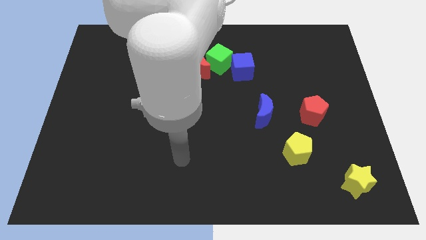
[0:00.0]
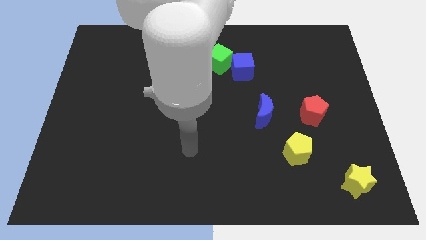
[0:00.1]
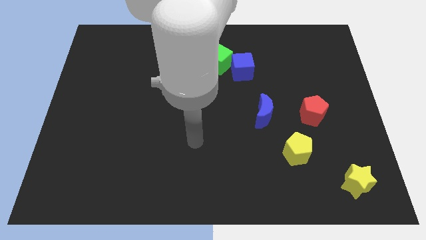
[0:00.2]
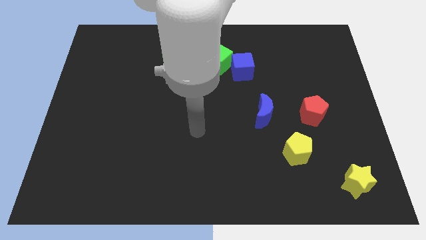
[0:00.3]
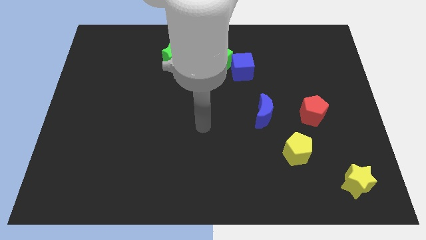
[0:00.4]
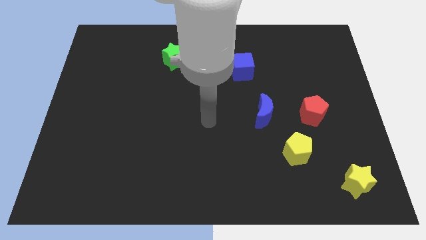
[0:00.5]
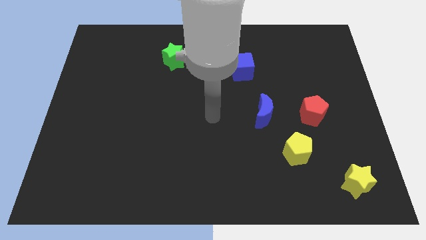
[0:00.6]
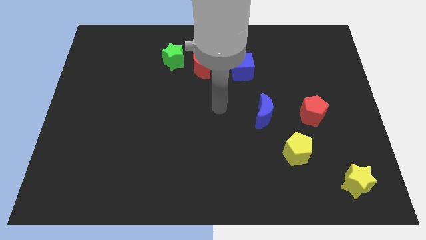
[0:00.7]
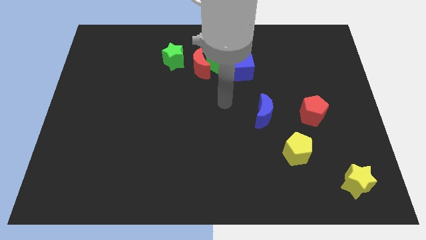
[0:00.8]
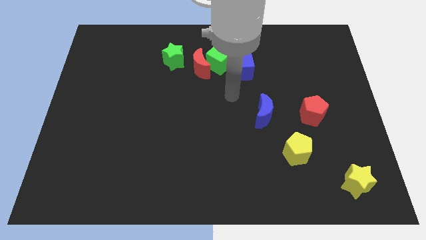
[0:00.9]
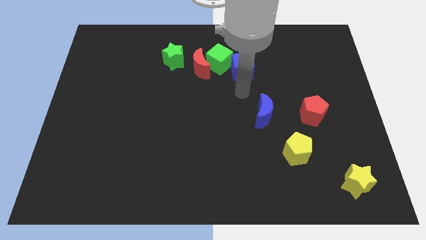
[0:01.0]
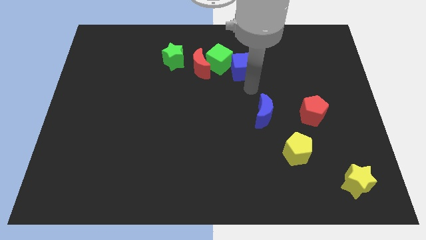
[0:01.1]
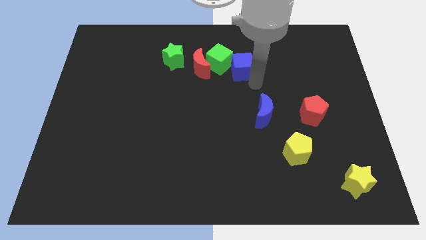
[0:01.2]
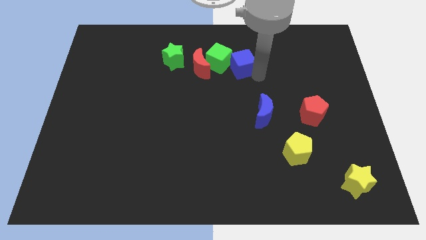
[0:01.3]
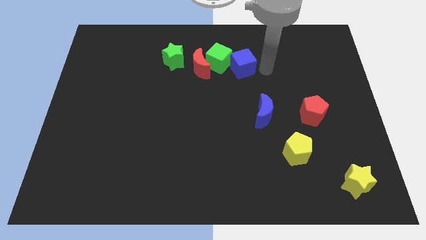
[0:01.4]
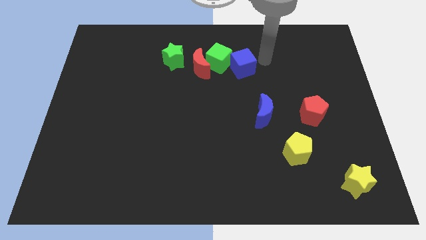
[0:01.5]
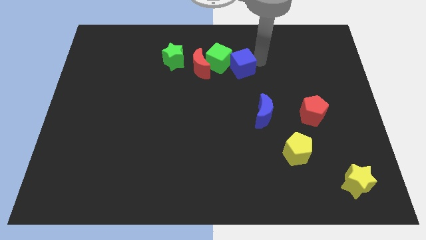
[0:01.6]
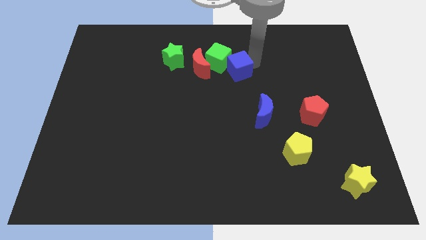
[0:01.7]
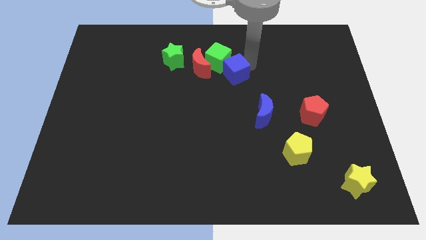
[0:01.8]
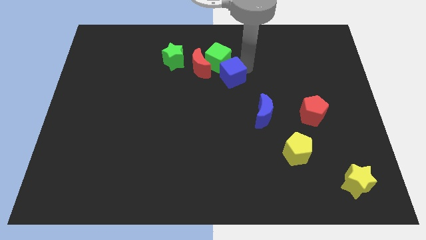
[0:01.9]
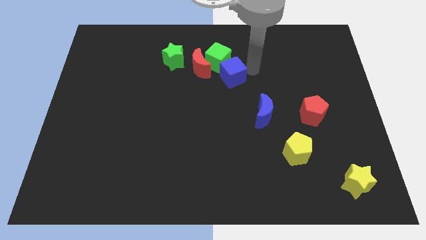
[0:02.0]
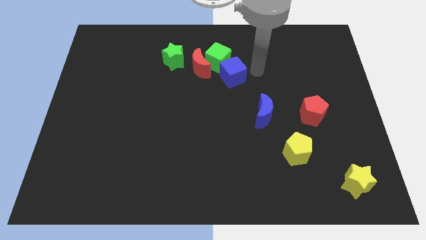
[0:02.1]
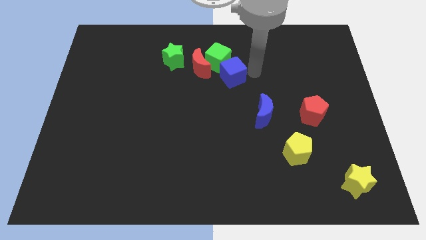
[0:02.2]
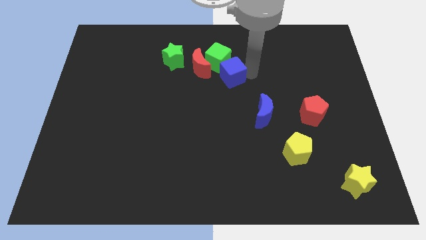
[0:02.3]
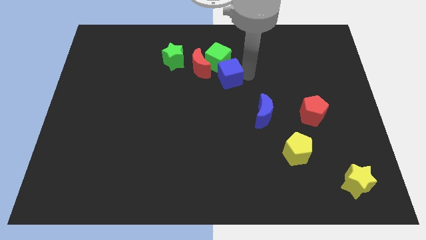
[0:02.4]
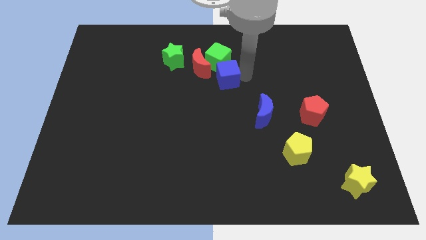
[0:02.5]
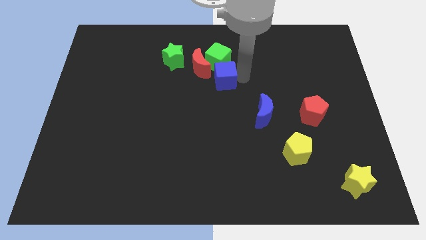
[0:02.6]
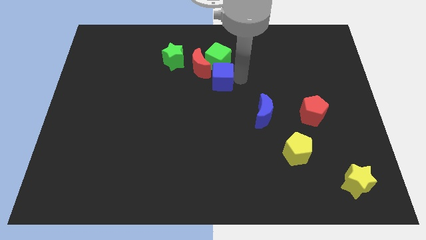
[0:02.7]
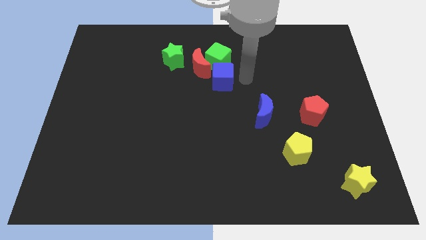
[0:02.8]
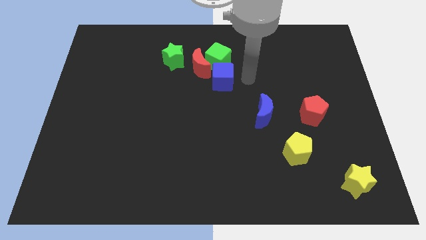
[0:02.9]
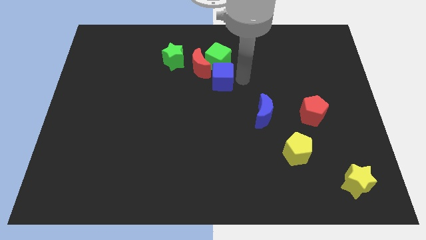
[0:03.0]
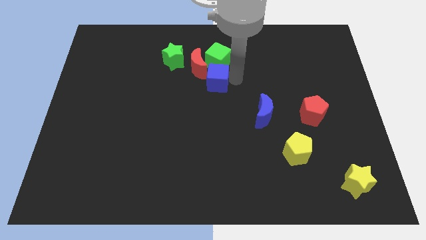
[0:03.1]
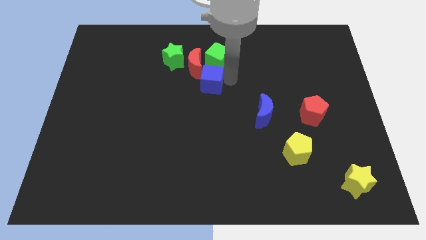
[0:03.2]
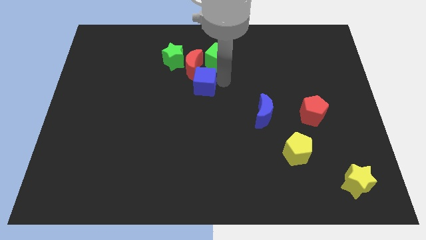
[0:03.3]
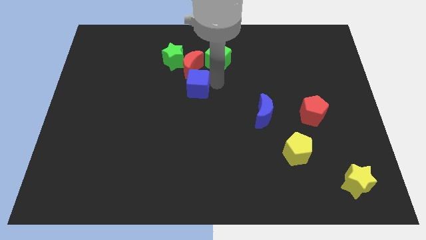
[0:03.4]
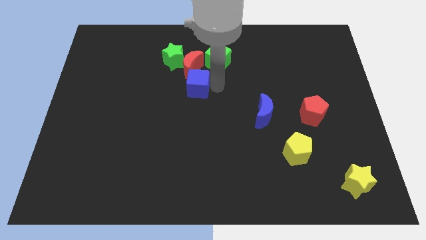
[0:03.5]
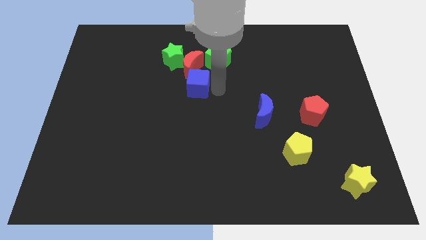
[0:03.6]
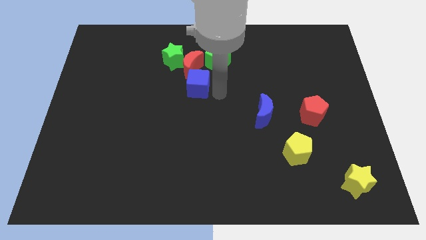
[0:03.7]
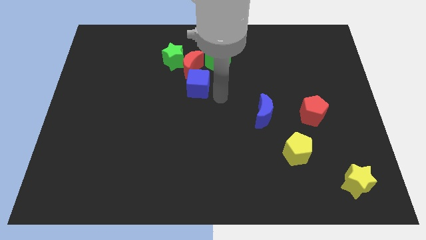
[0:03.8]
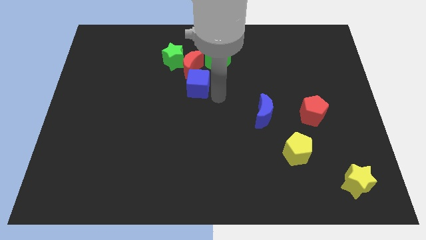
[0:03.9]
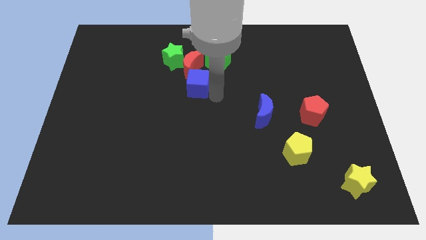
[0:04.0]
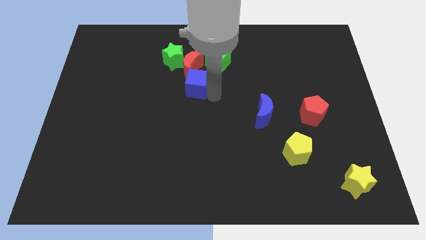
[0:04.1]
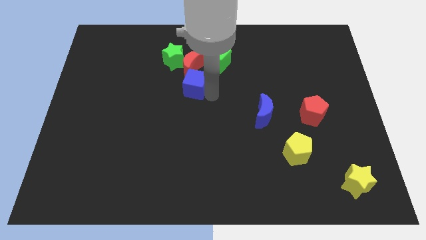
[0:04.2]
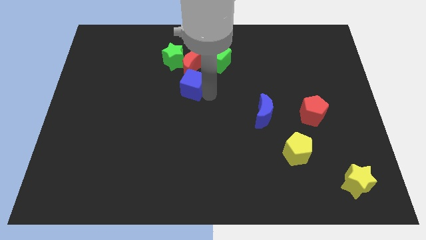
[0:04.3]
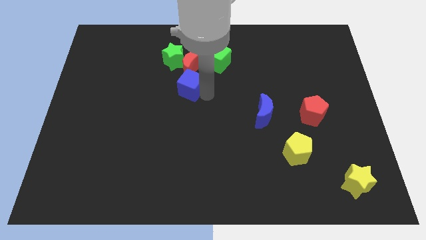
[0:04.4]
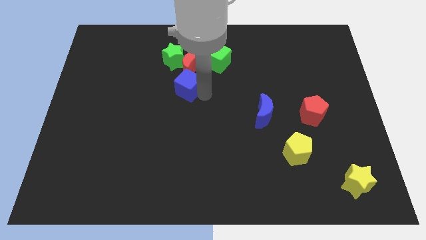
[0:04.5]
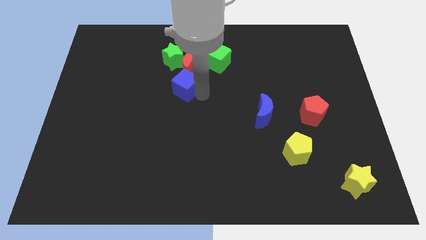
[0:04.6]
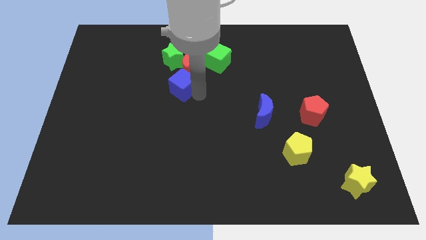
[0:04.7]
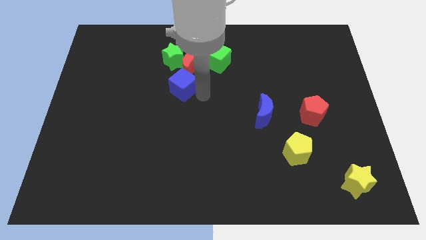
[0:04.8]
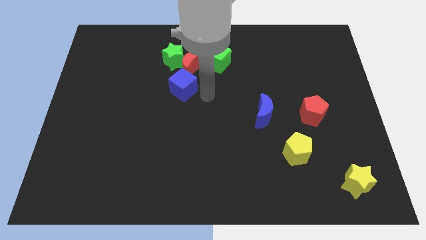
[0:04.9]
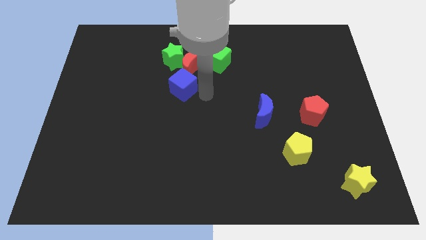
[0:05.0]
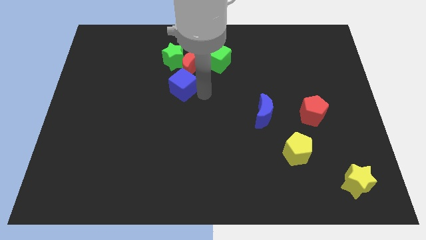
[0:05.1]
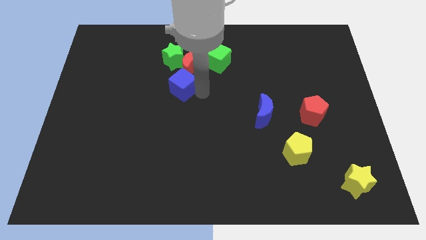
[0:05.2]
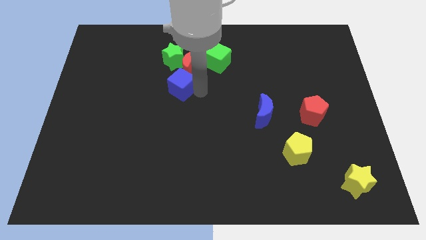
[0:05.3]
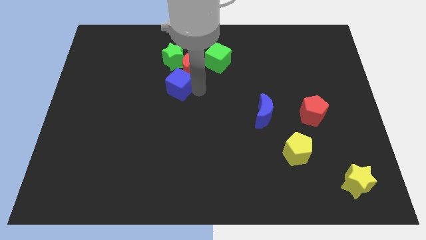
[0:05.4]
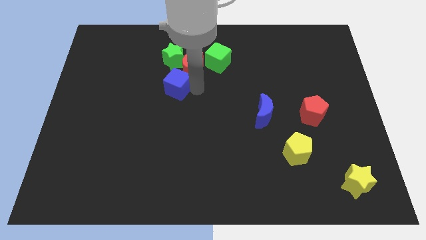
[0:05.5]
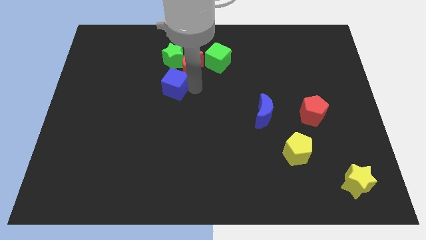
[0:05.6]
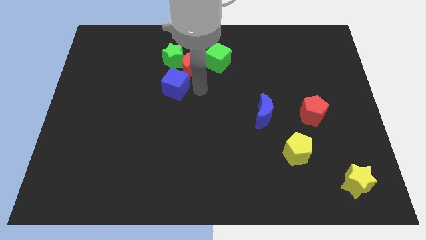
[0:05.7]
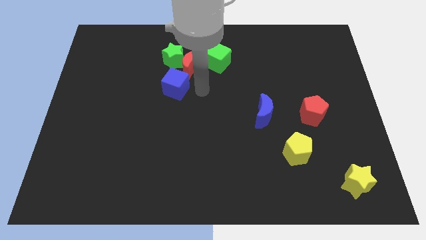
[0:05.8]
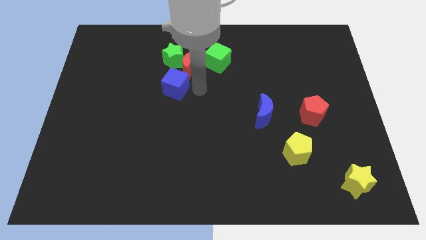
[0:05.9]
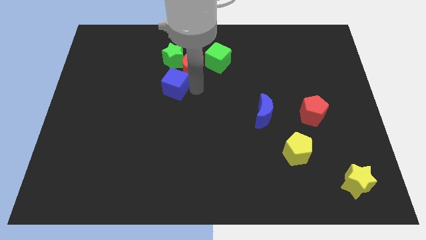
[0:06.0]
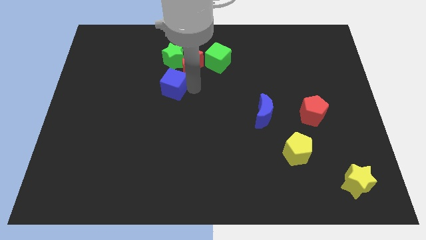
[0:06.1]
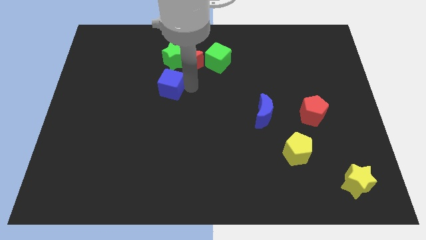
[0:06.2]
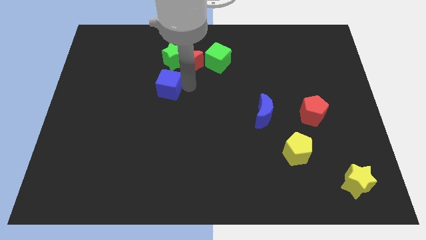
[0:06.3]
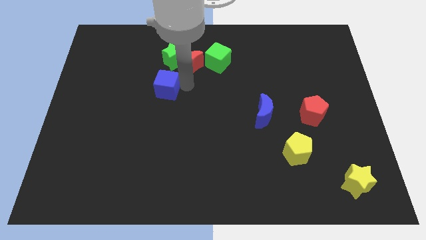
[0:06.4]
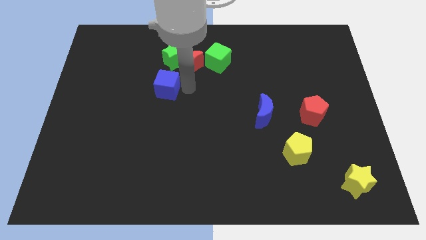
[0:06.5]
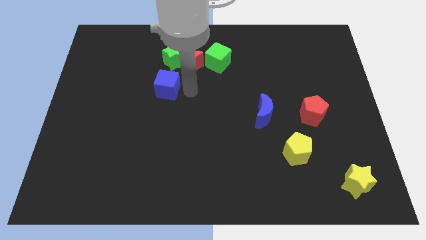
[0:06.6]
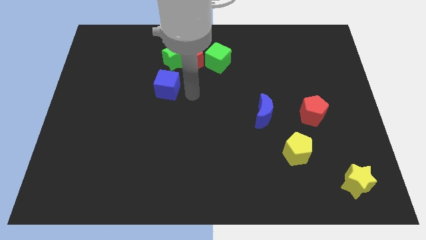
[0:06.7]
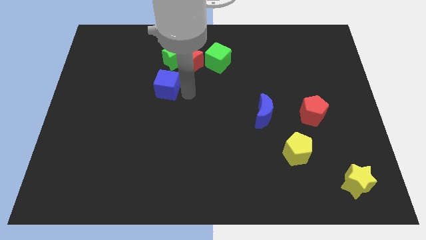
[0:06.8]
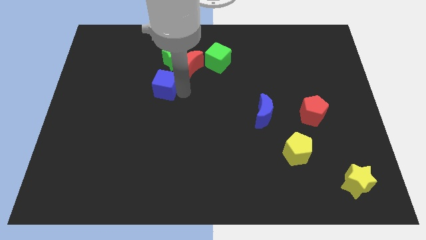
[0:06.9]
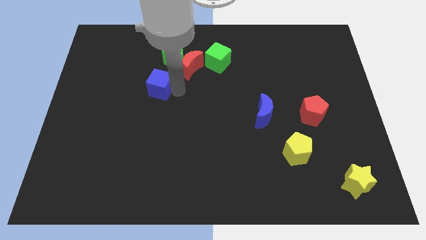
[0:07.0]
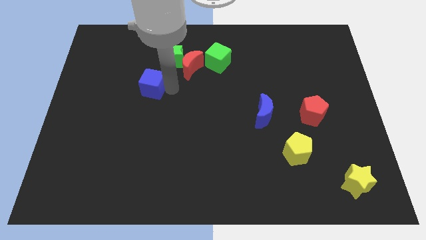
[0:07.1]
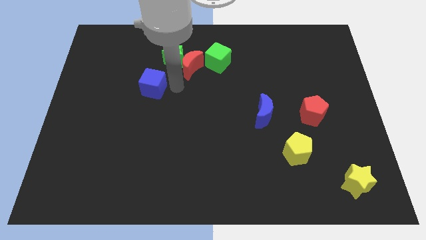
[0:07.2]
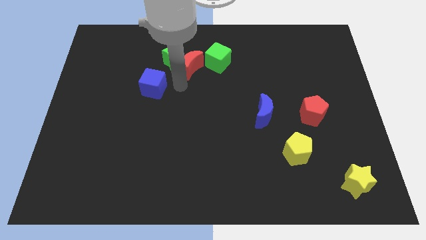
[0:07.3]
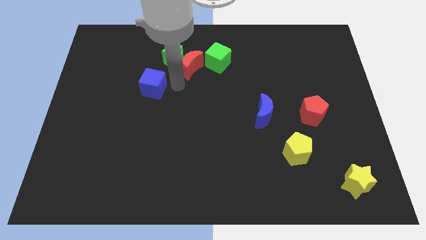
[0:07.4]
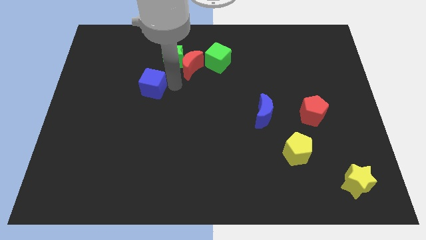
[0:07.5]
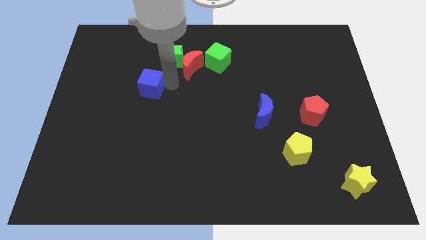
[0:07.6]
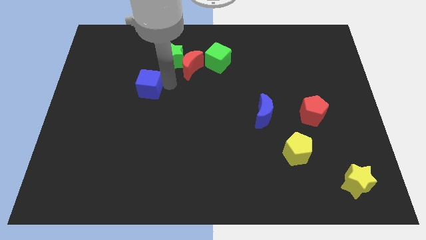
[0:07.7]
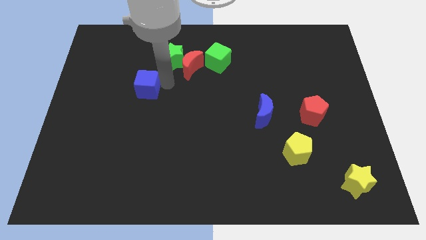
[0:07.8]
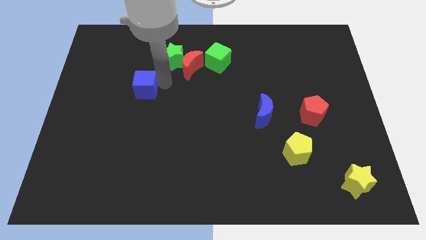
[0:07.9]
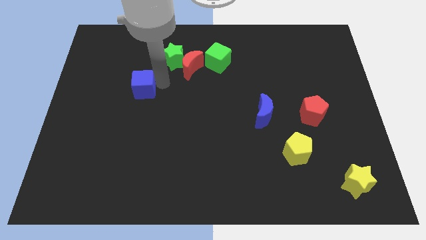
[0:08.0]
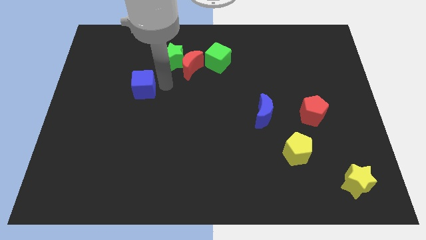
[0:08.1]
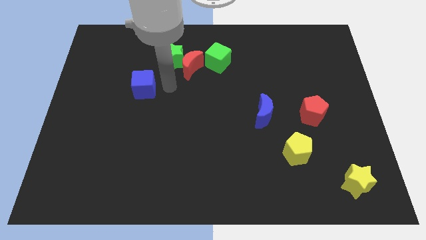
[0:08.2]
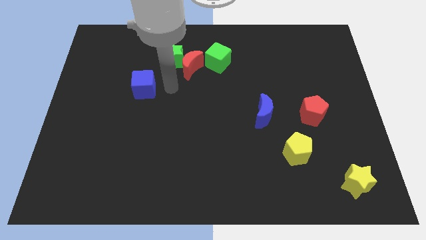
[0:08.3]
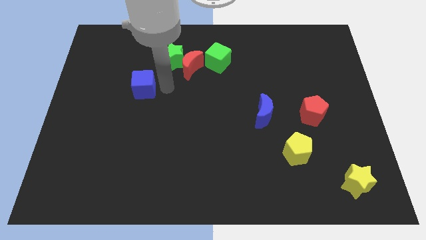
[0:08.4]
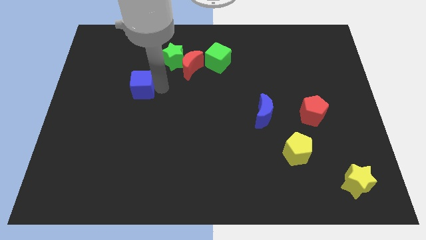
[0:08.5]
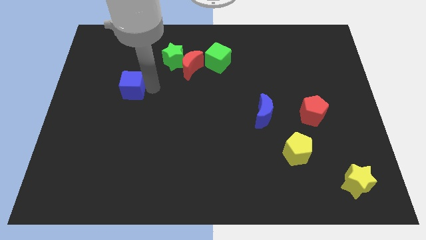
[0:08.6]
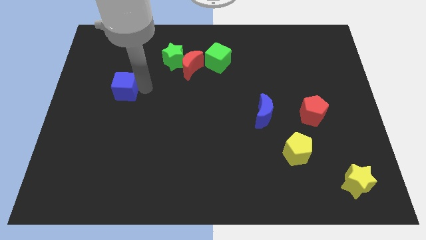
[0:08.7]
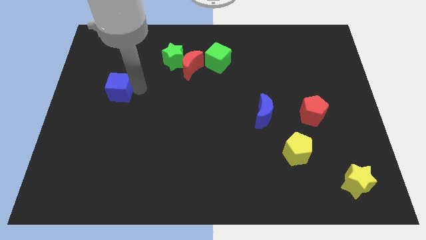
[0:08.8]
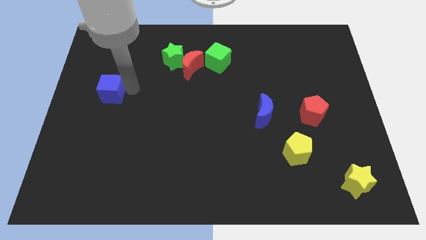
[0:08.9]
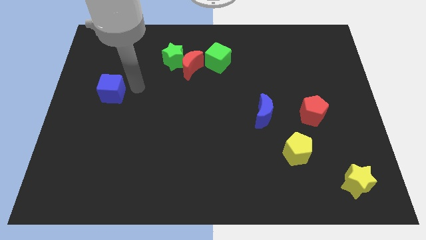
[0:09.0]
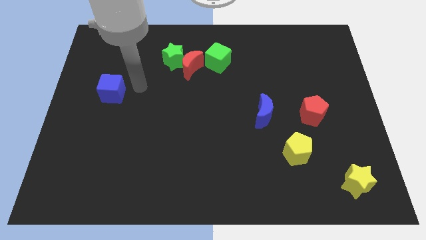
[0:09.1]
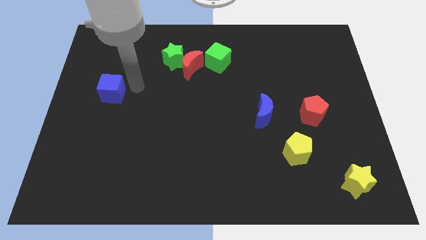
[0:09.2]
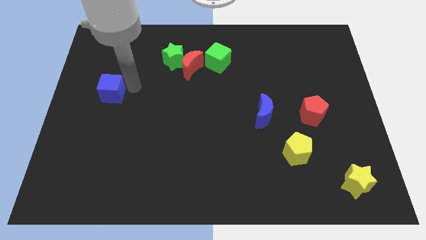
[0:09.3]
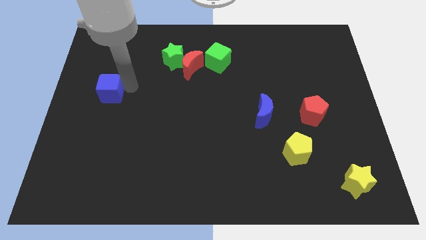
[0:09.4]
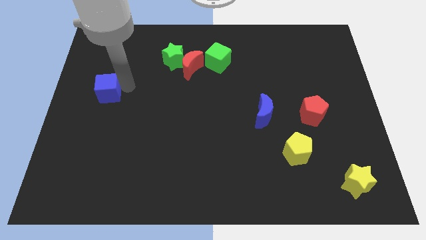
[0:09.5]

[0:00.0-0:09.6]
move the blue cube to the center left
